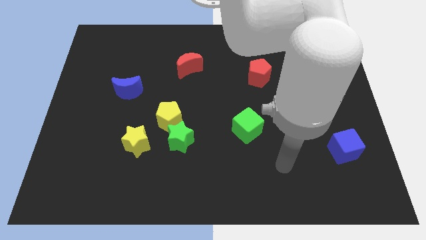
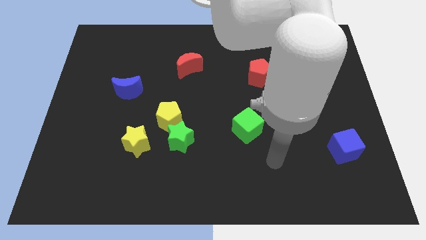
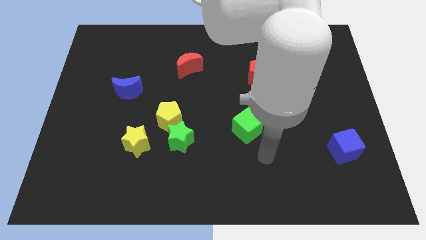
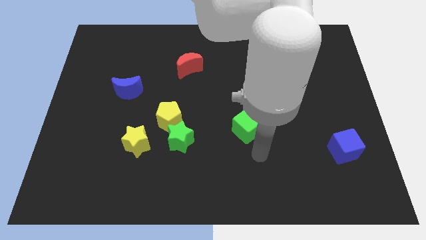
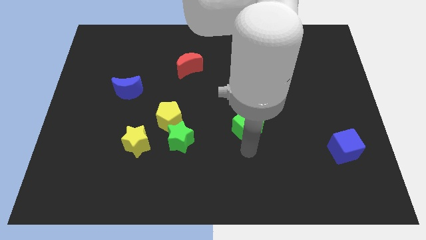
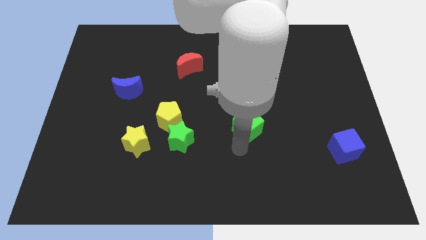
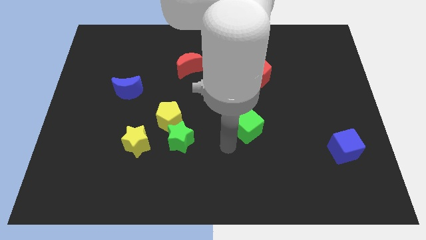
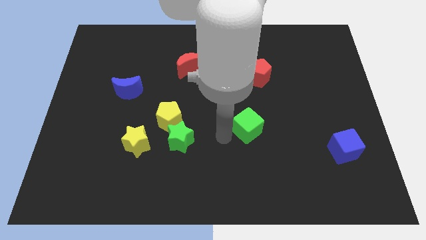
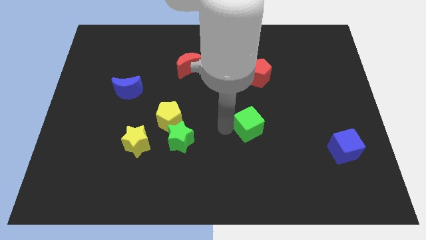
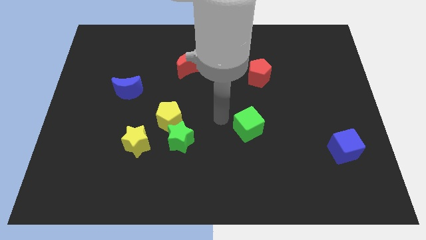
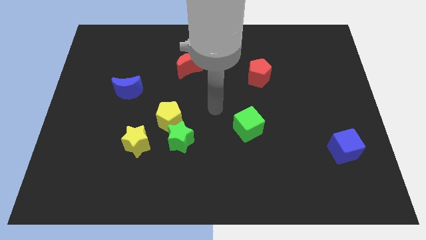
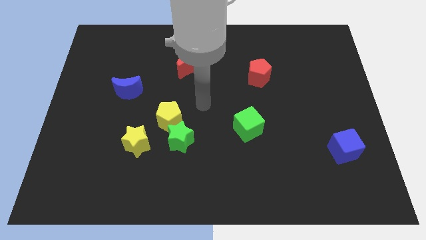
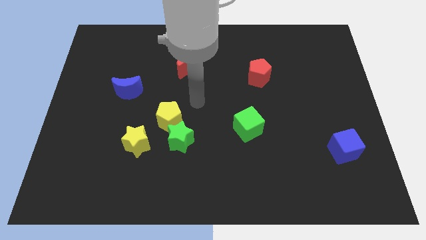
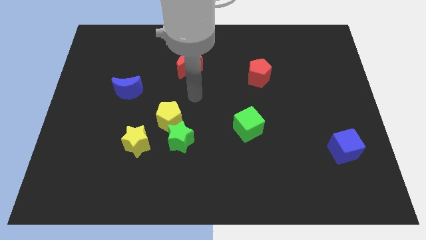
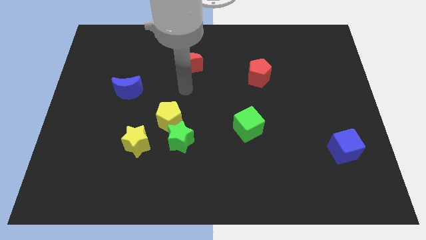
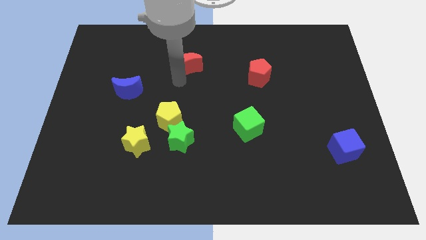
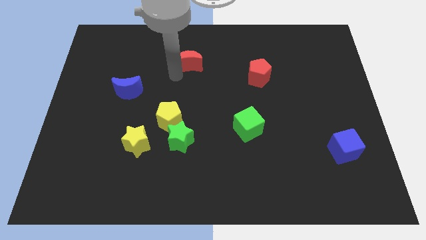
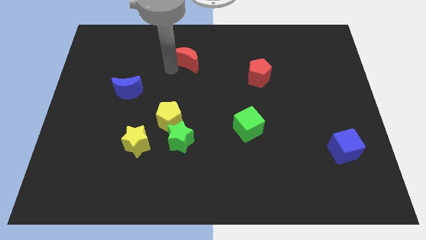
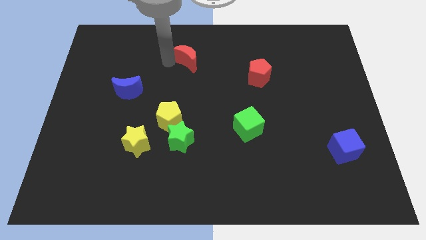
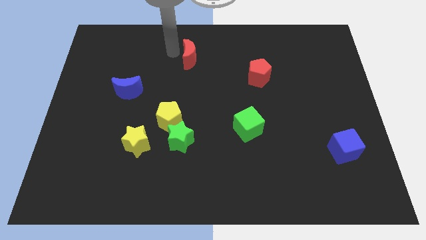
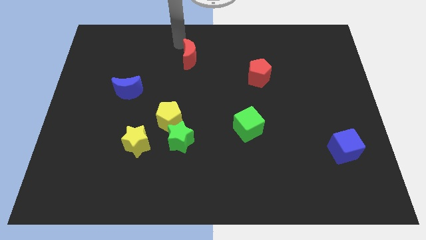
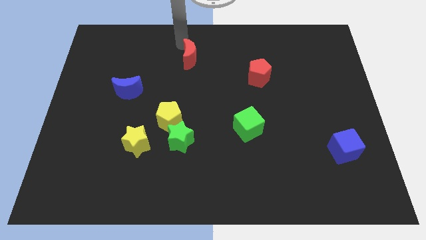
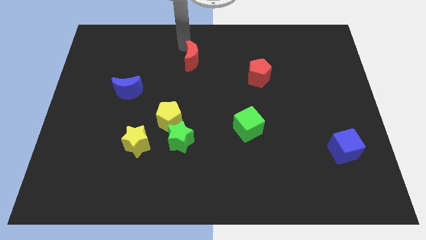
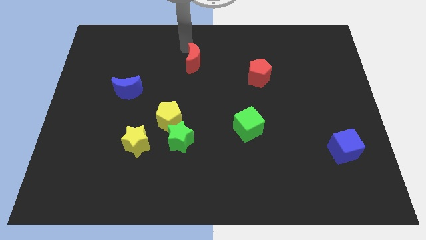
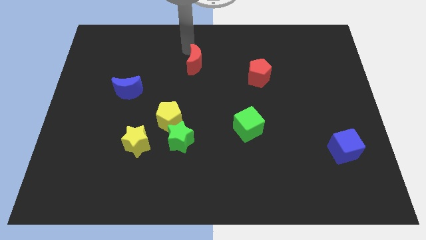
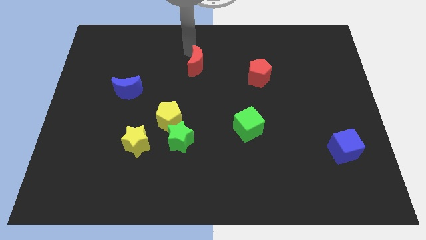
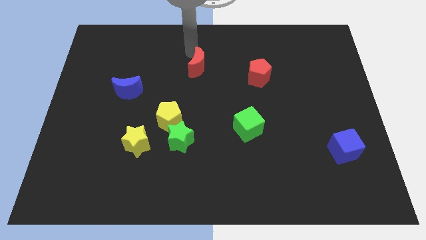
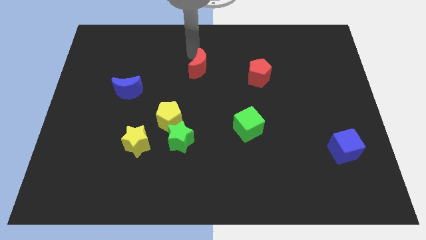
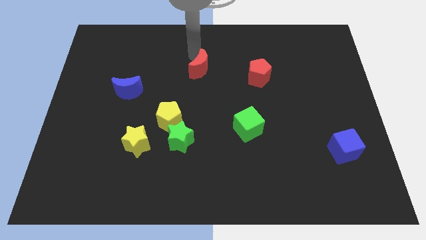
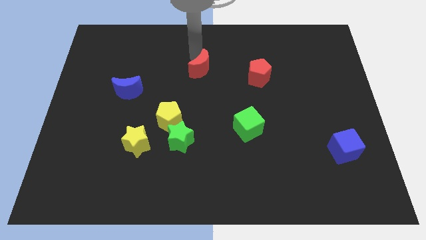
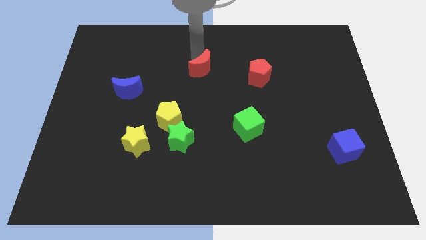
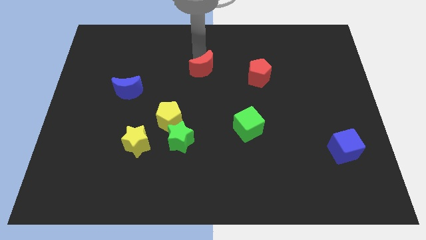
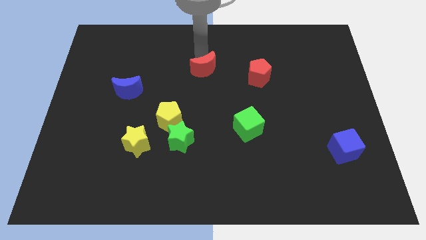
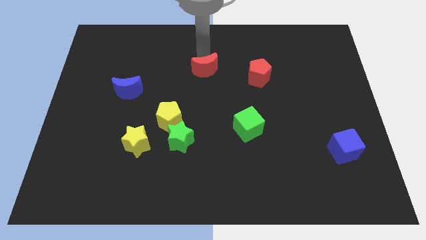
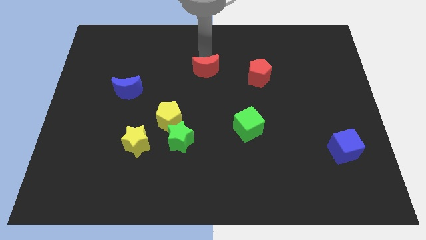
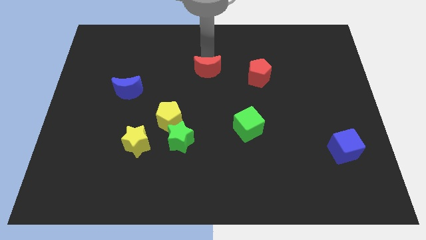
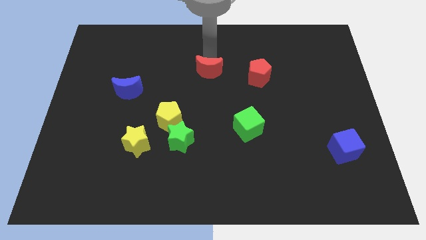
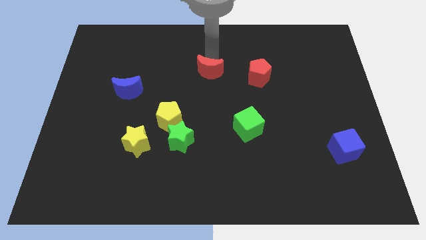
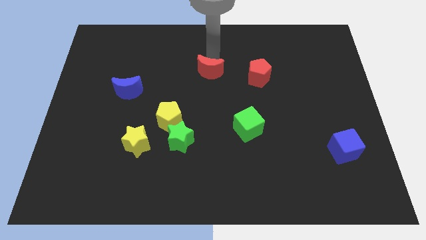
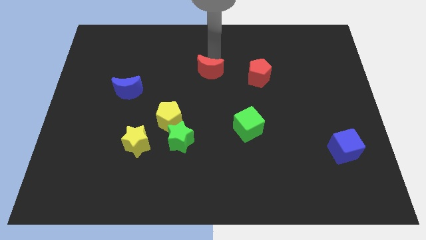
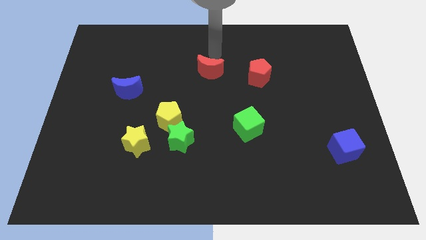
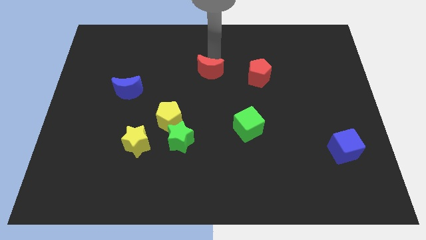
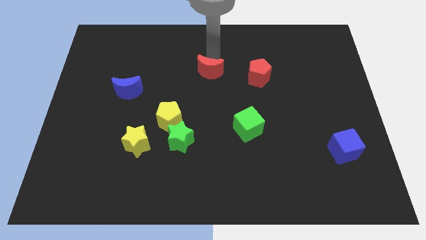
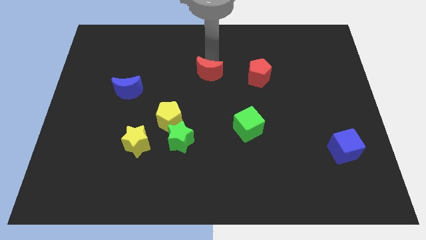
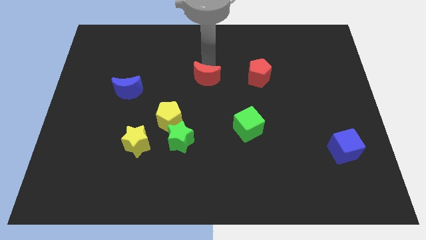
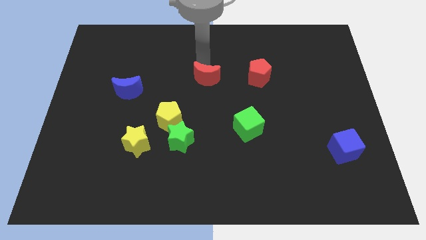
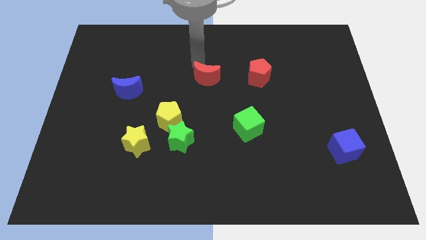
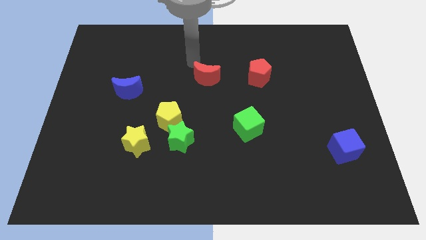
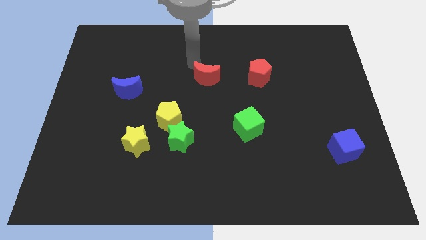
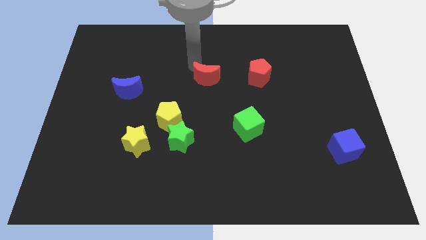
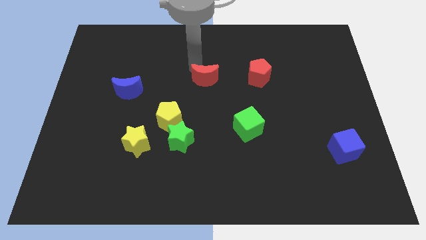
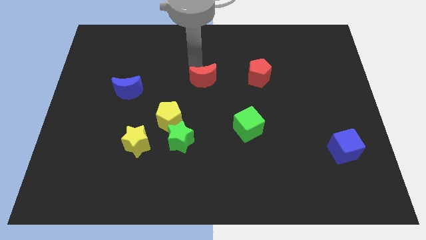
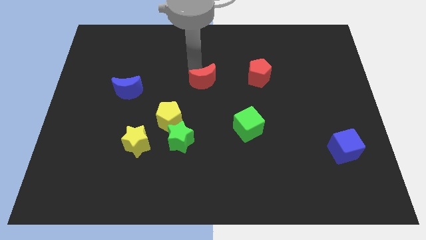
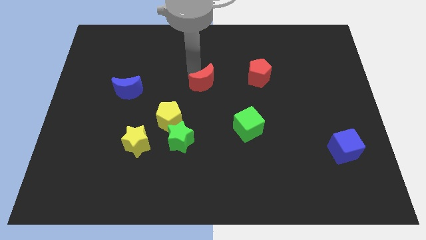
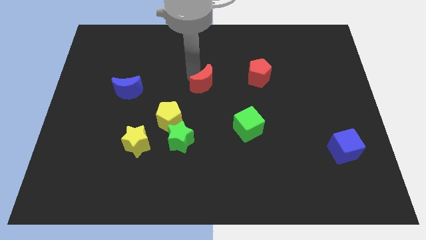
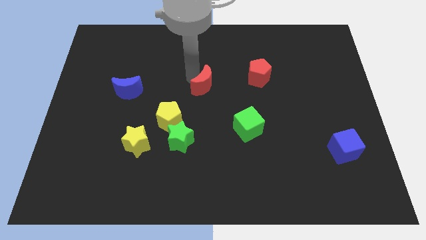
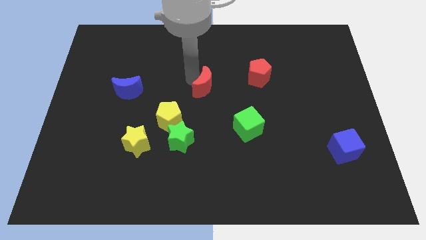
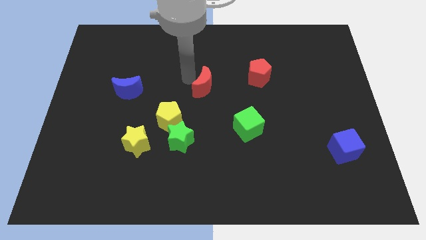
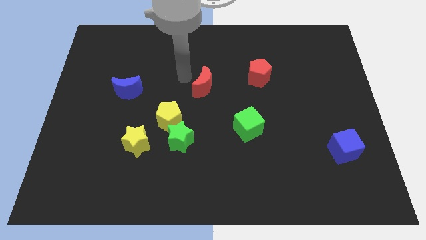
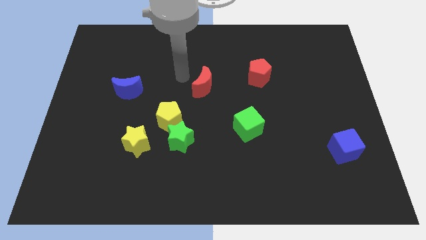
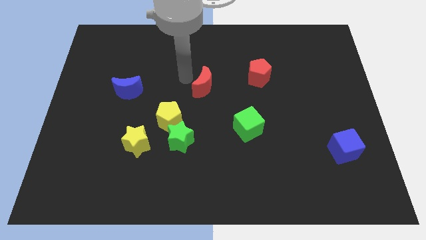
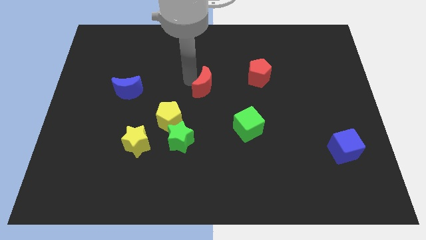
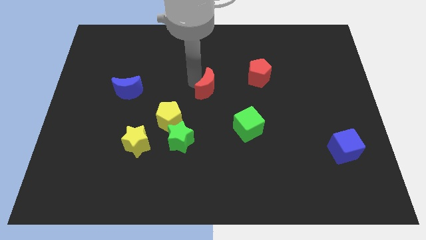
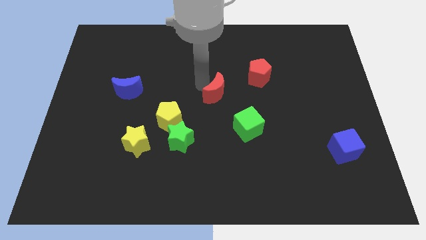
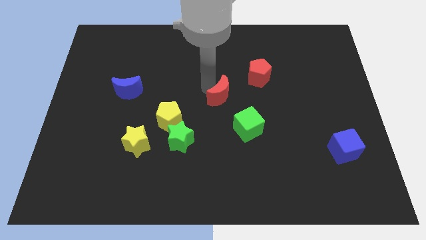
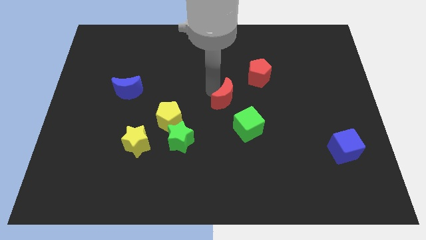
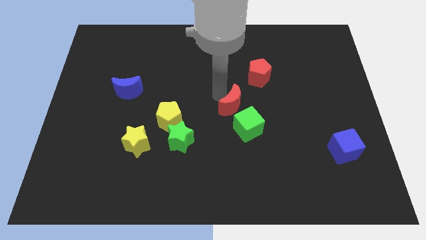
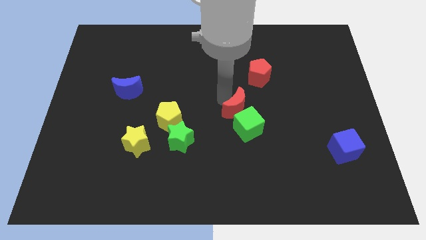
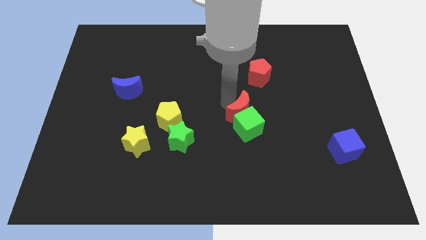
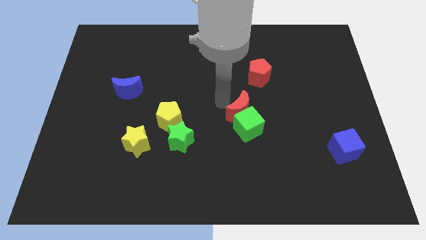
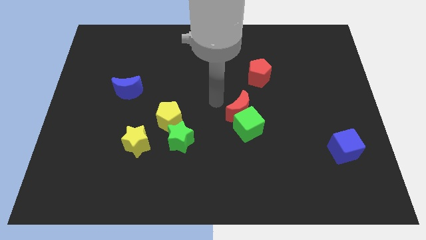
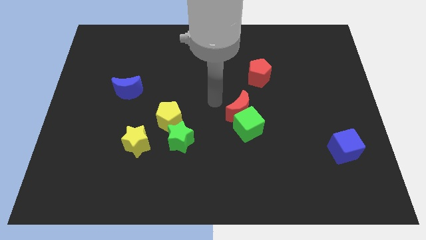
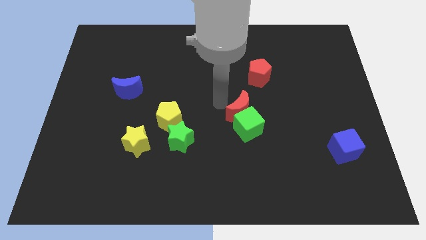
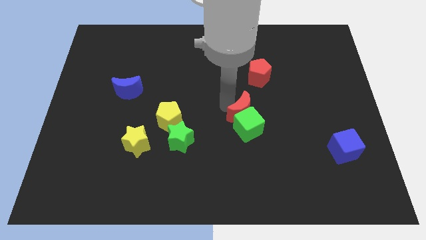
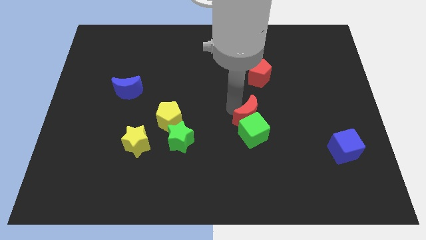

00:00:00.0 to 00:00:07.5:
slide the red moon down and then right

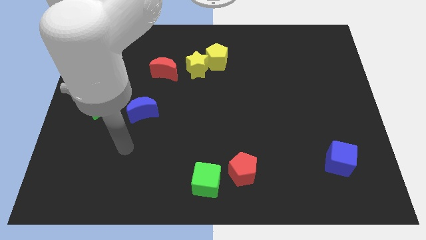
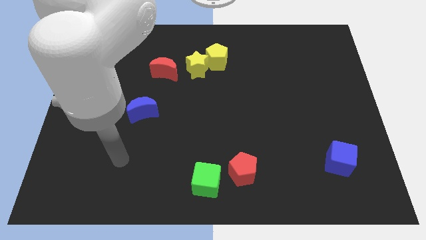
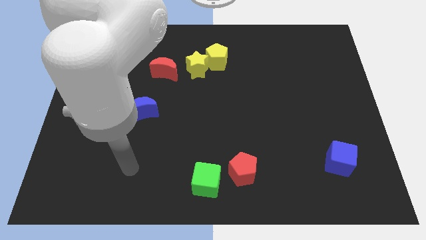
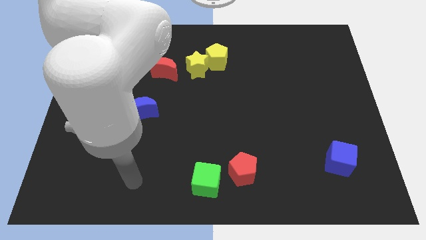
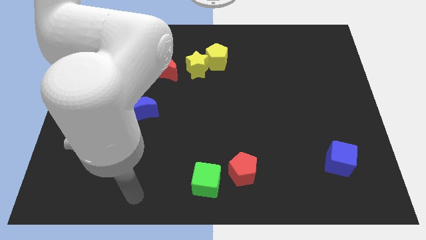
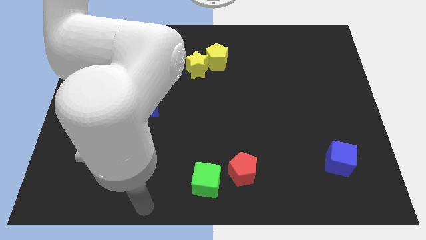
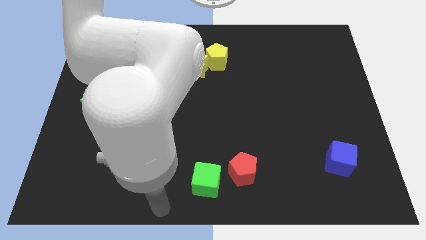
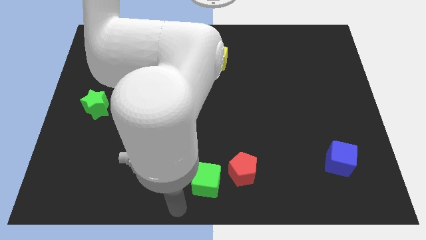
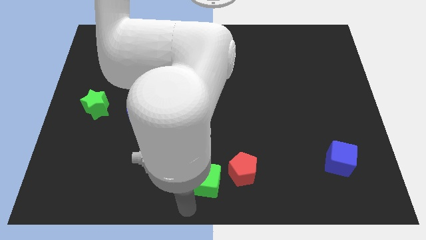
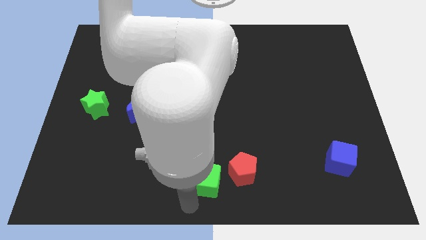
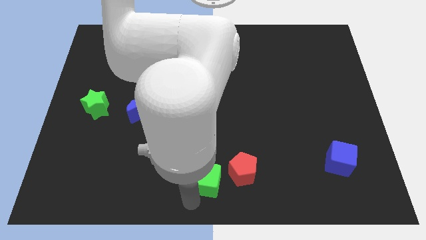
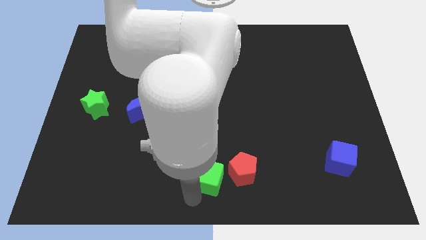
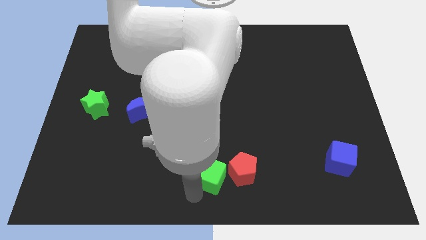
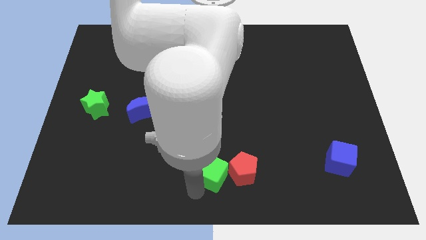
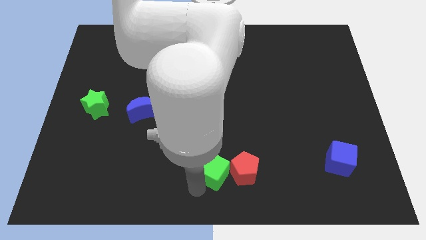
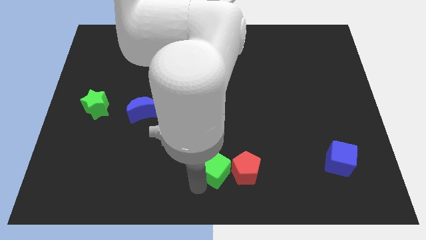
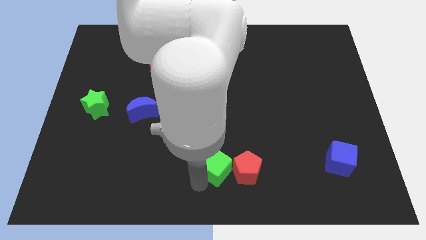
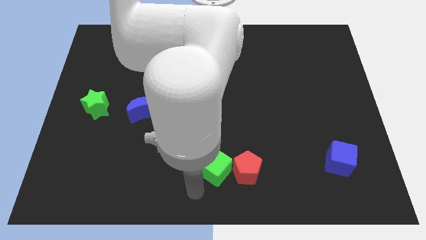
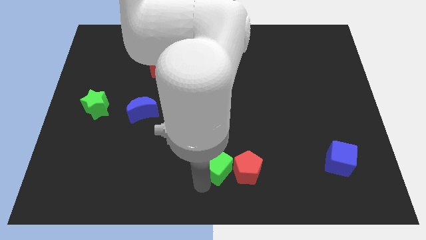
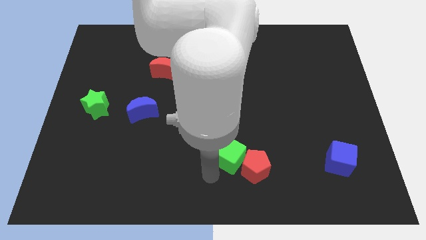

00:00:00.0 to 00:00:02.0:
slide the green cube upwards and to the right diagonally slightly
